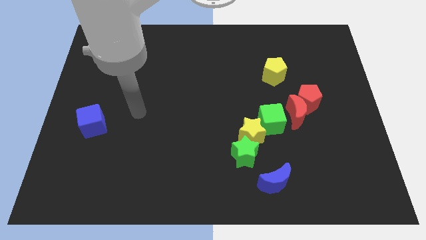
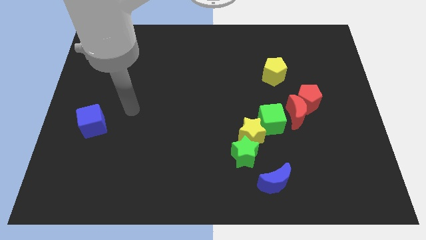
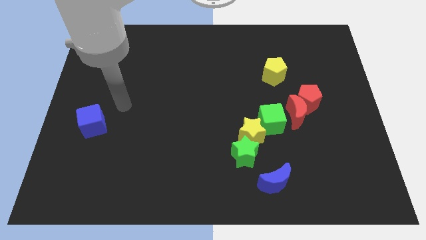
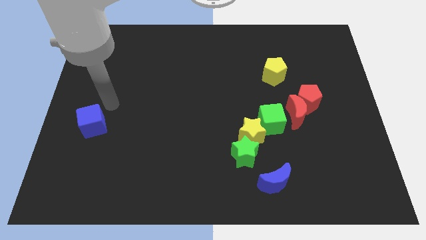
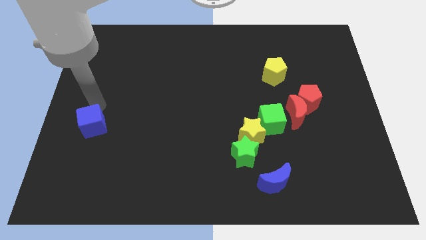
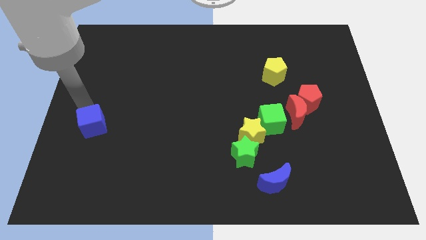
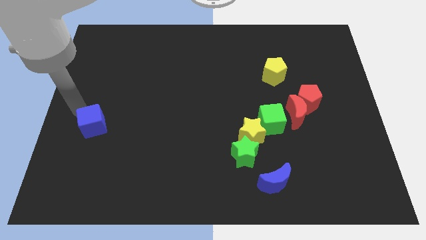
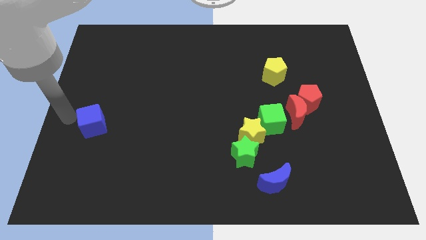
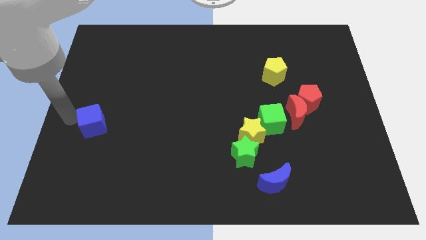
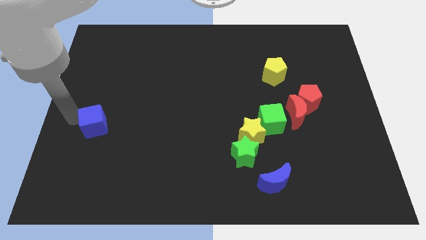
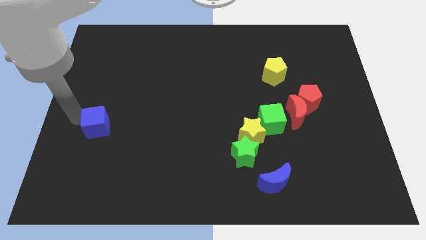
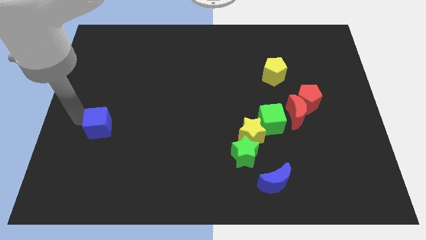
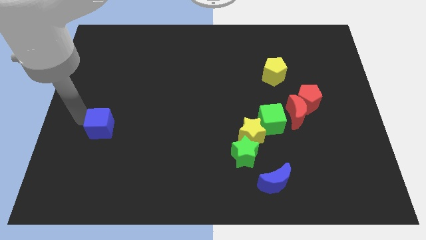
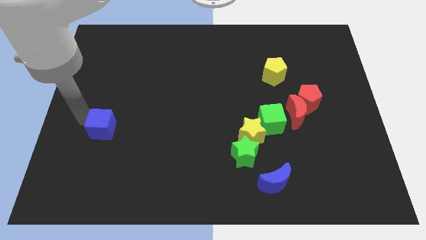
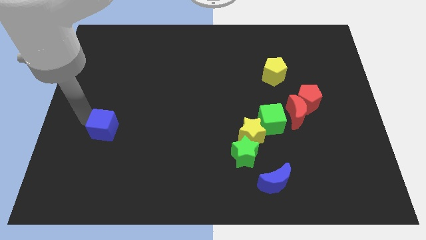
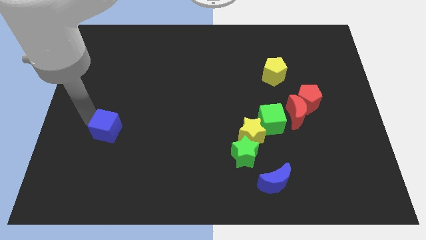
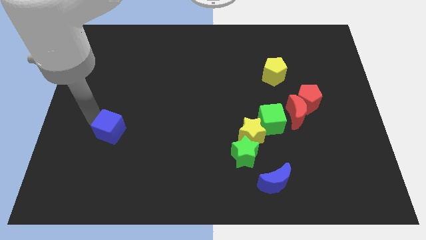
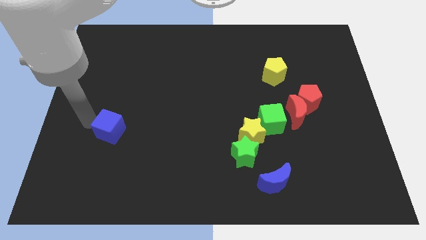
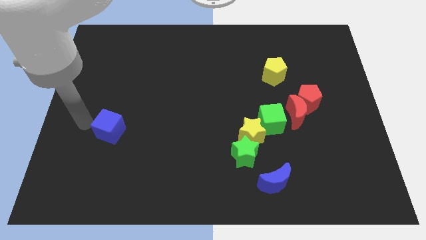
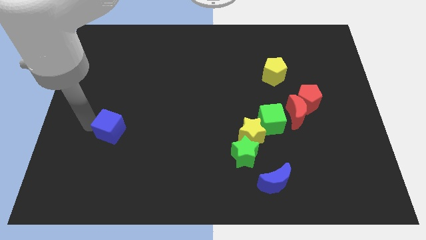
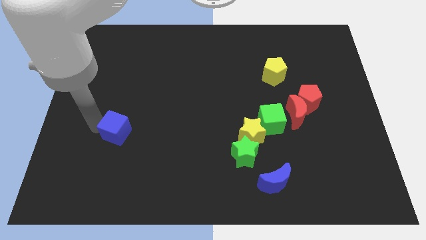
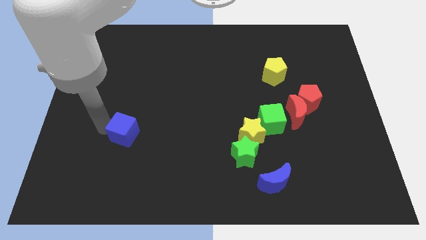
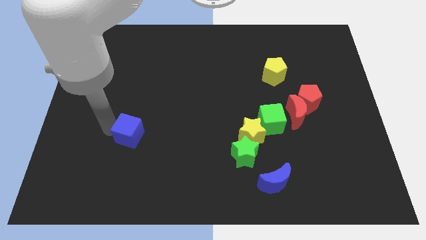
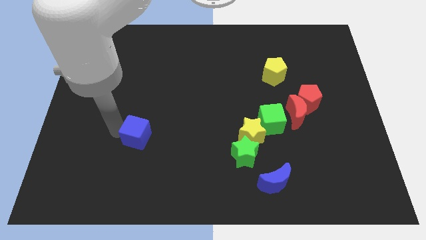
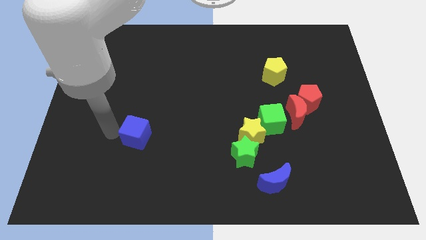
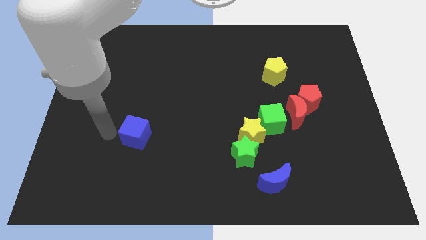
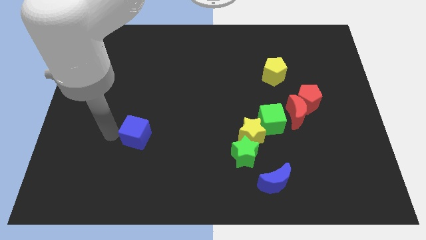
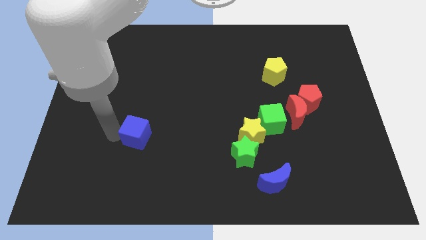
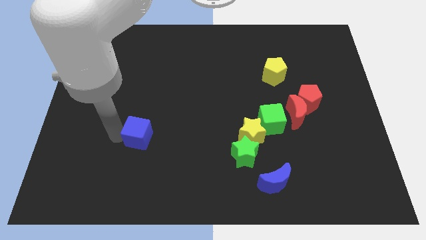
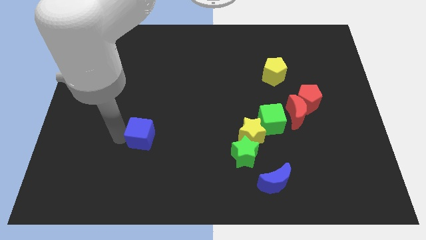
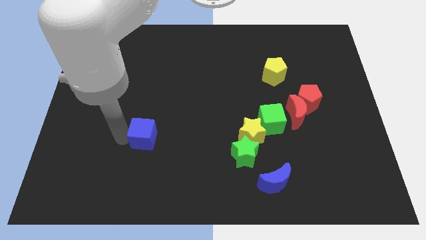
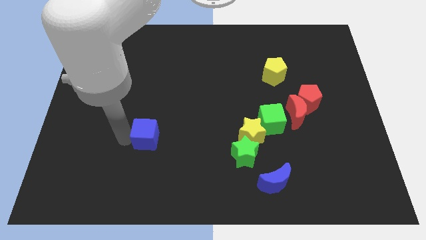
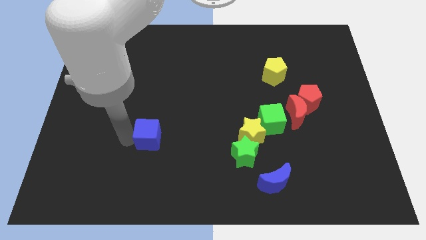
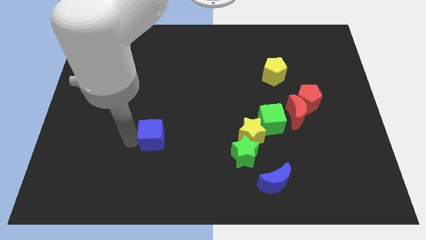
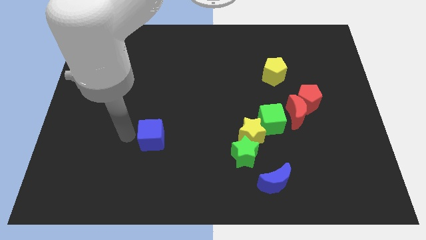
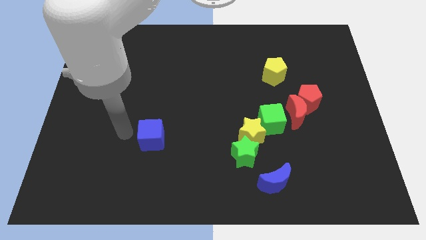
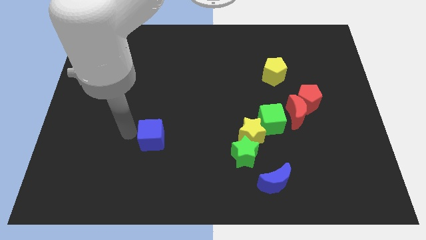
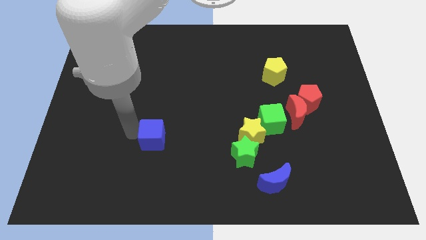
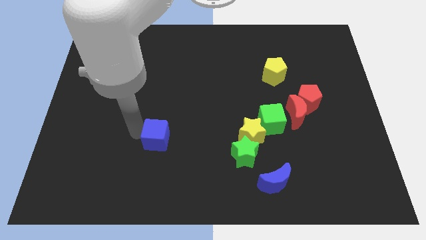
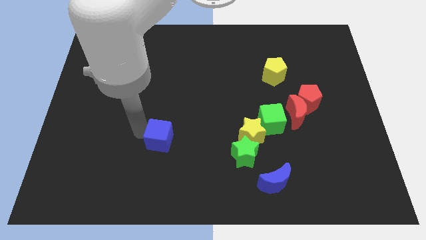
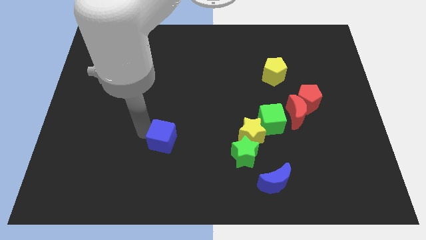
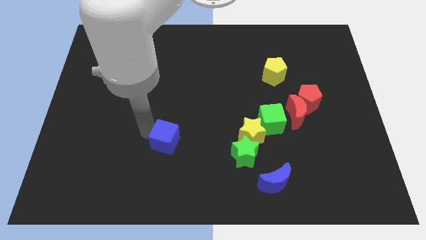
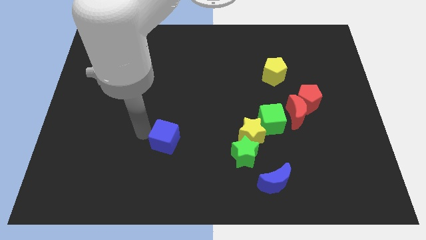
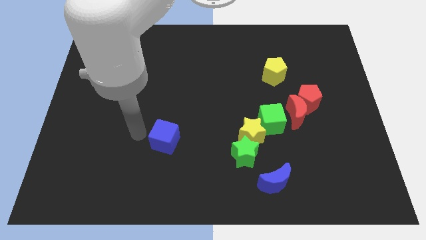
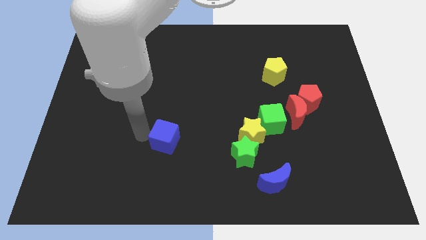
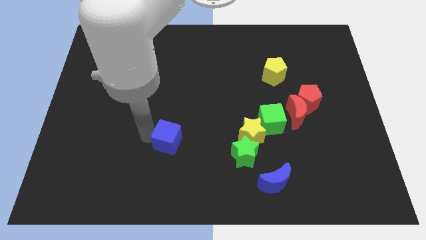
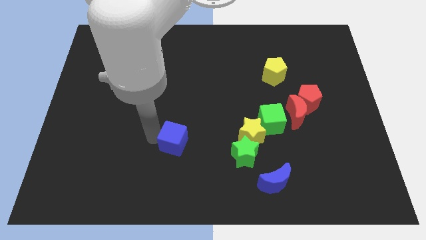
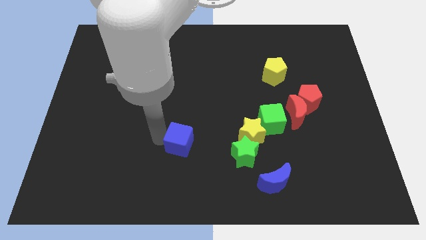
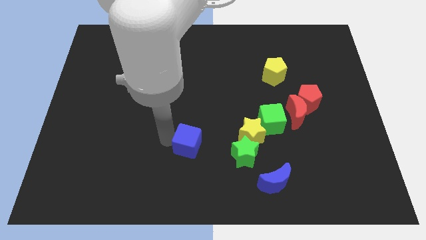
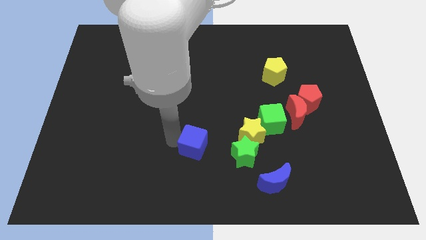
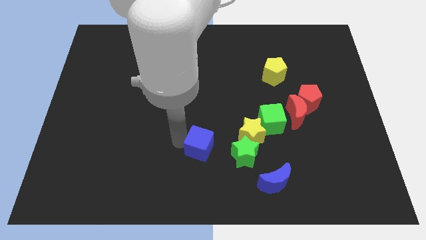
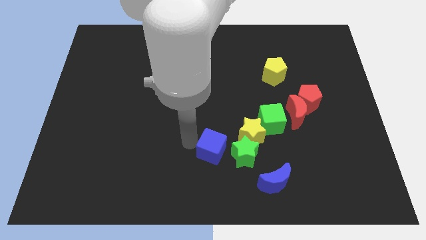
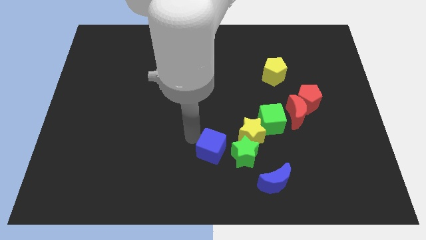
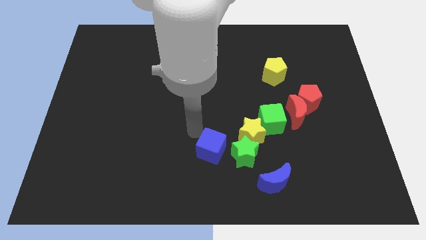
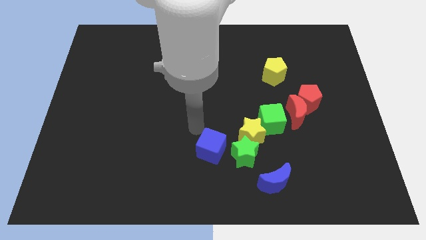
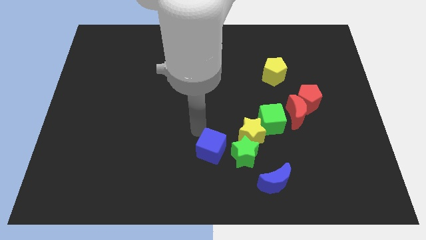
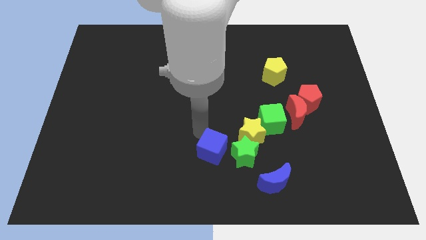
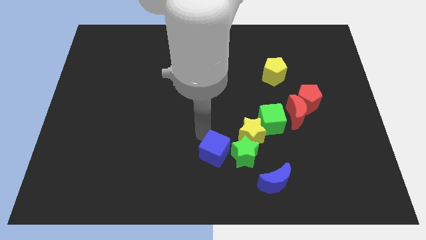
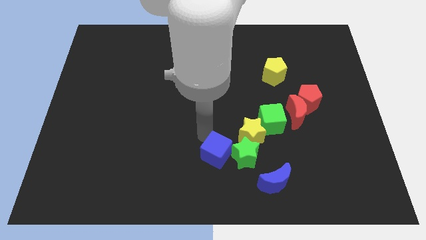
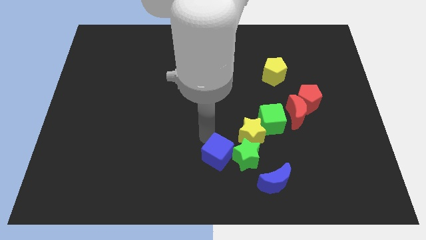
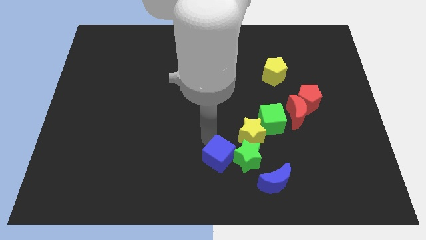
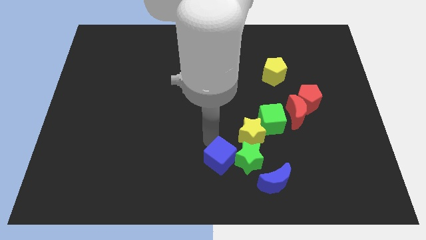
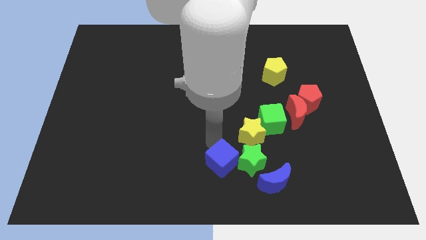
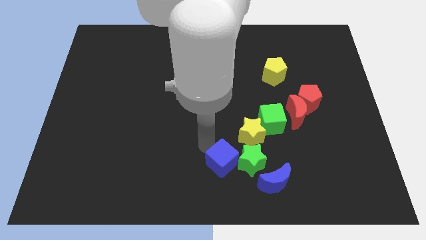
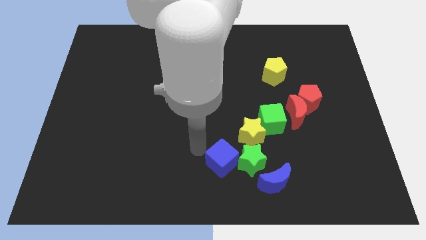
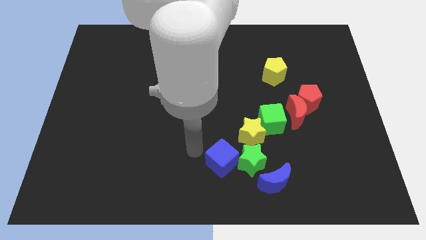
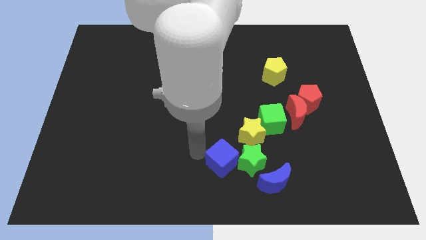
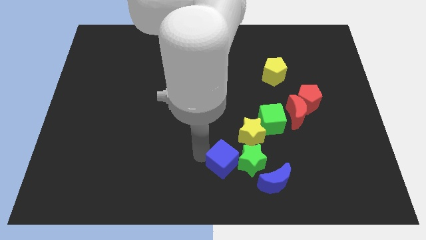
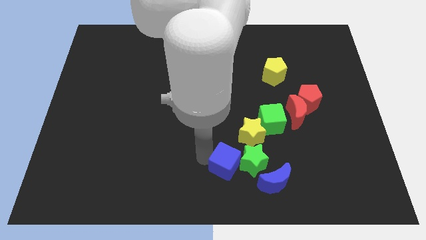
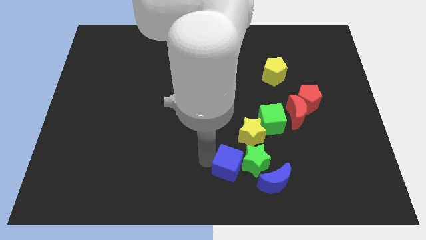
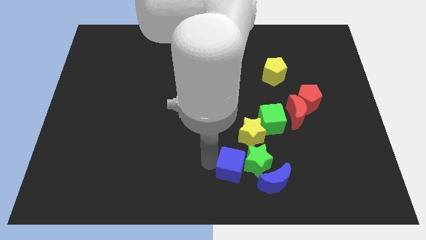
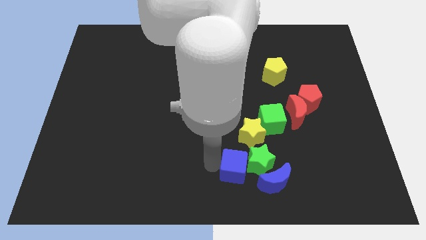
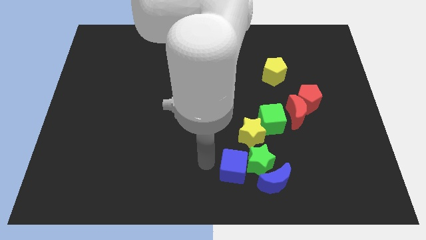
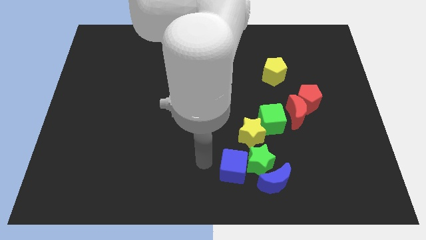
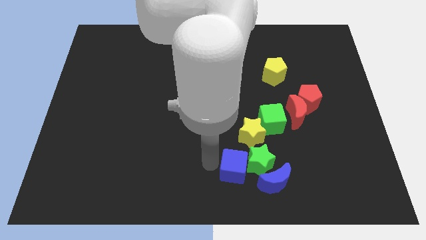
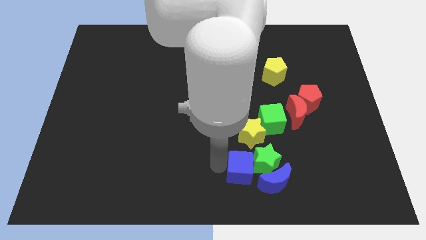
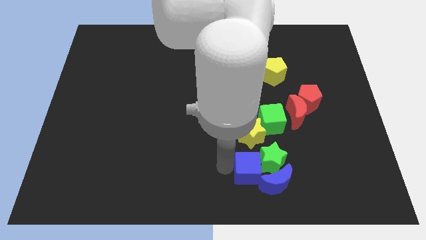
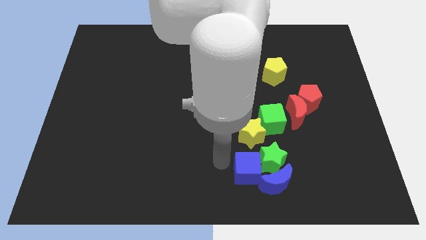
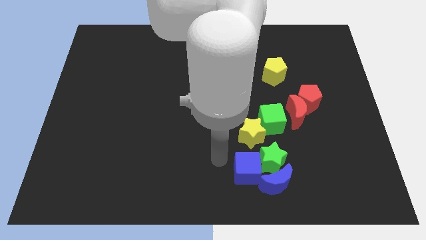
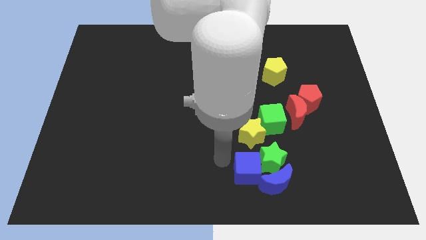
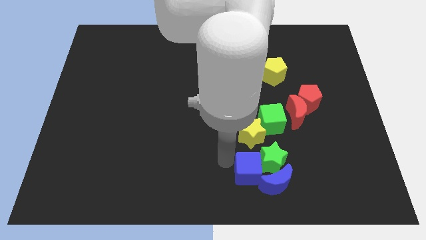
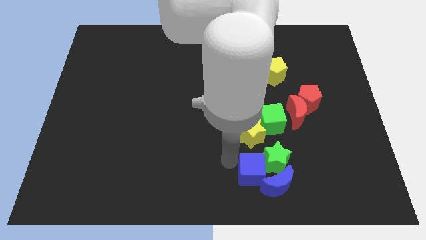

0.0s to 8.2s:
push the blue cube next to the blue moon
